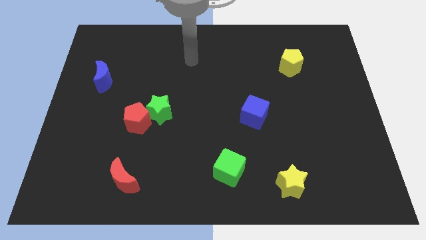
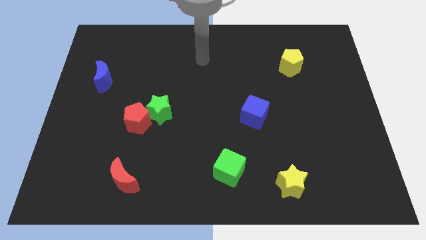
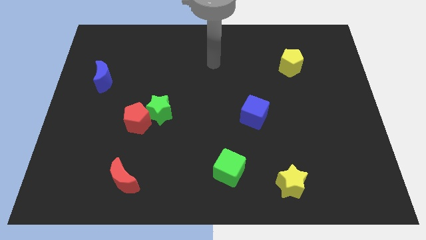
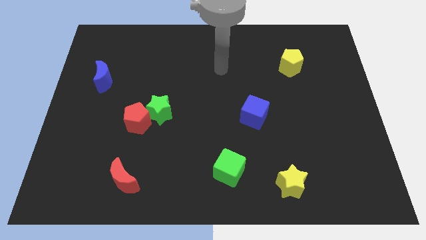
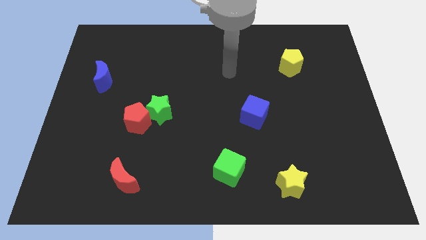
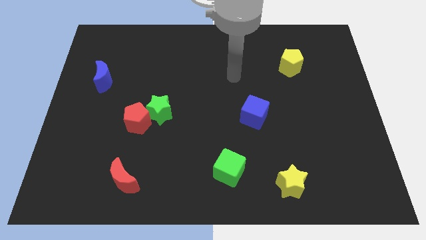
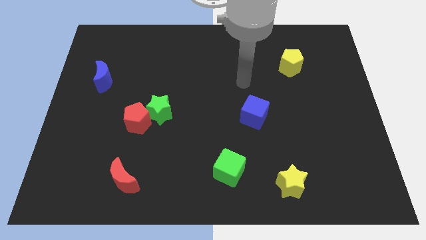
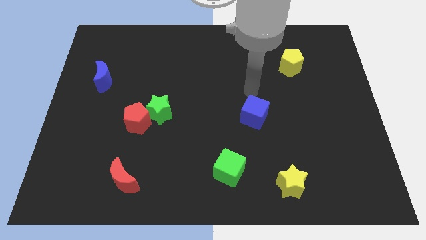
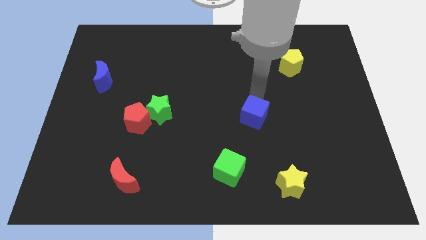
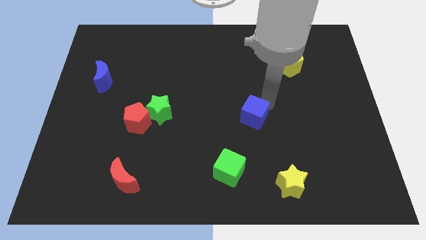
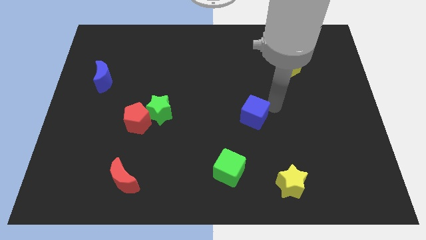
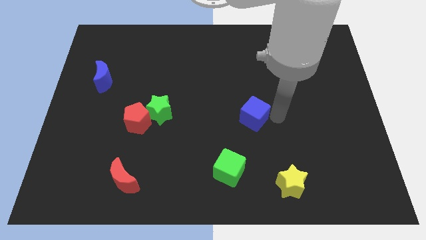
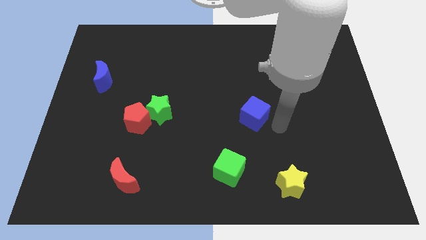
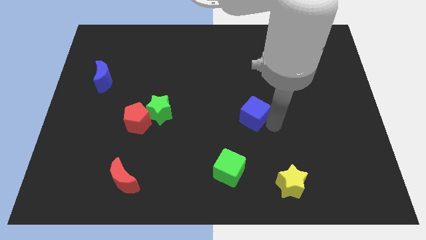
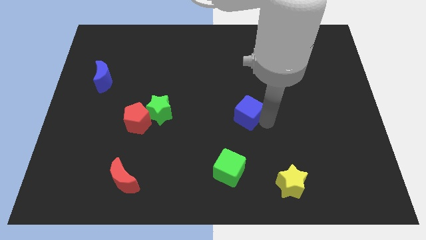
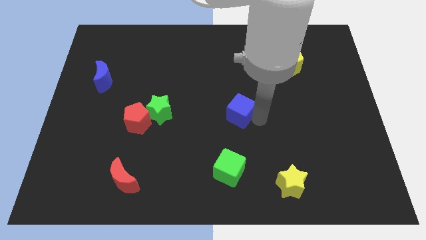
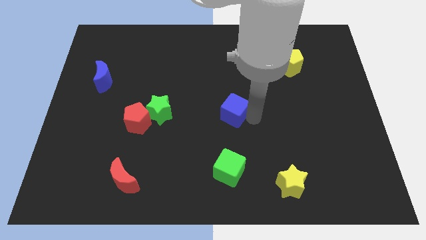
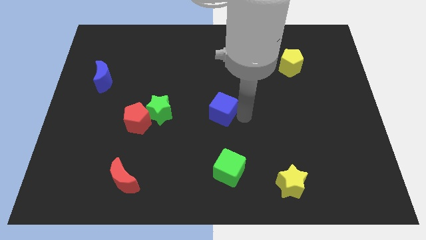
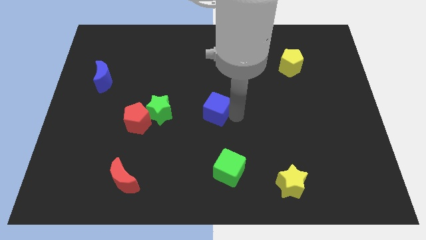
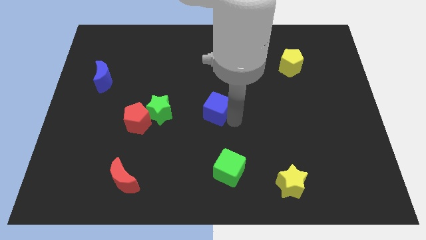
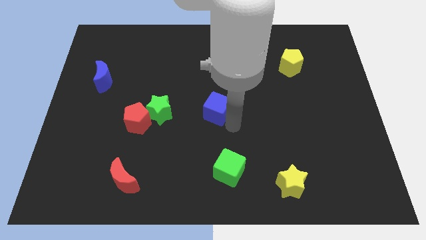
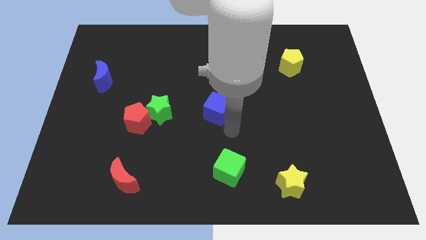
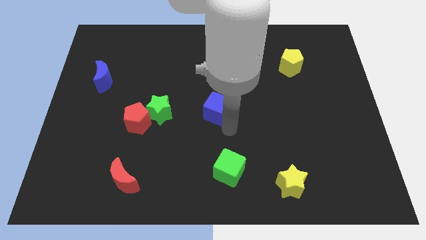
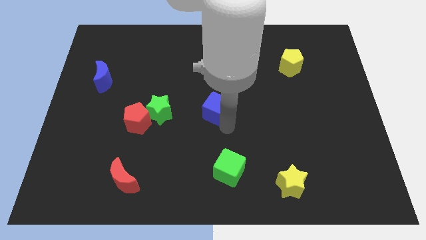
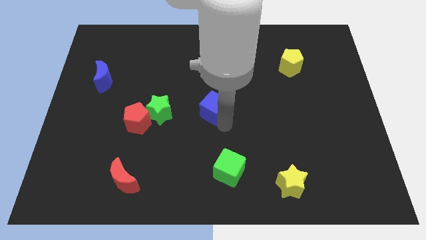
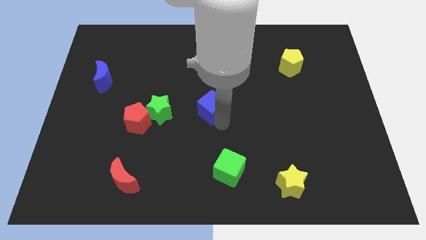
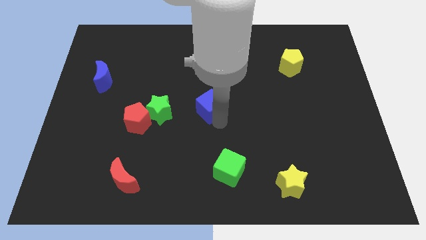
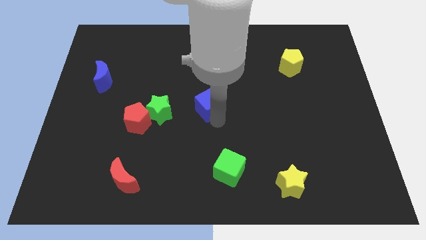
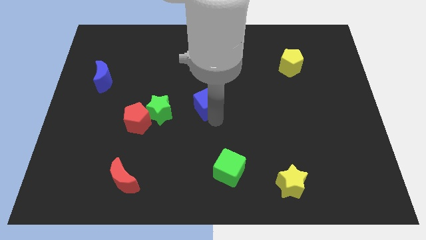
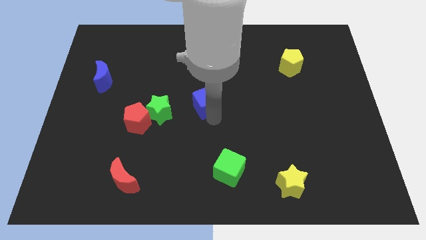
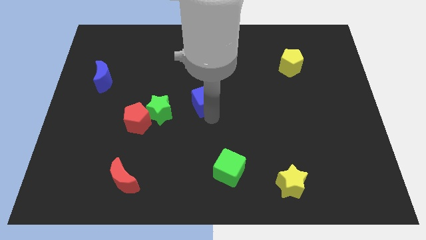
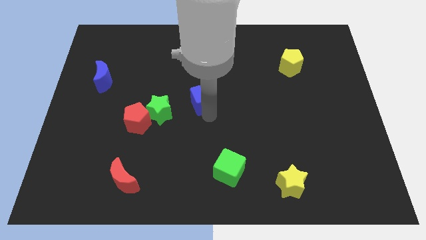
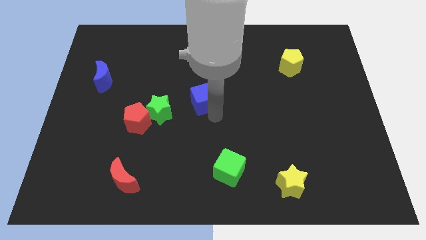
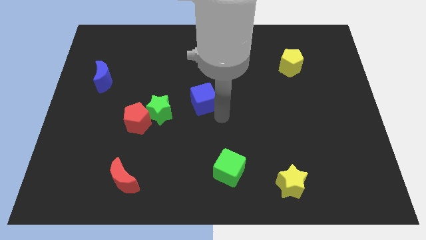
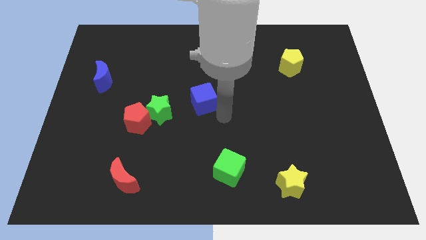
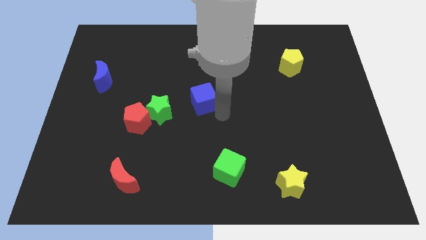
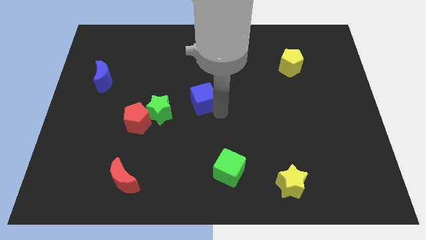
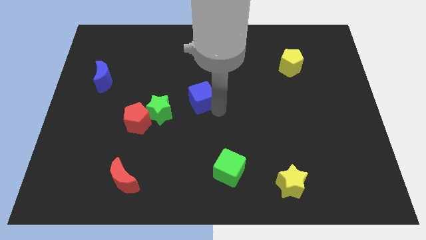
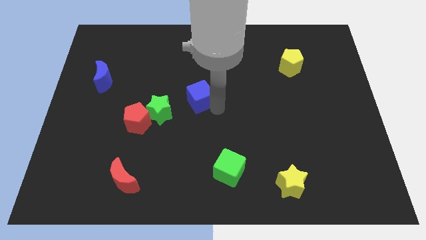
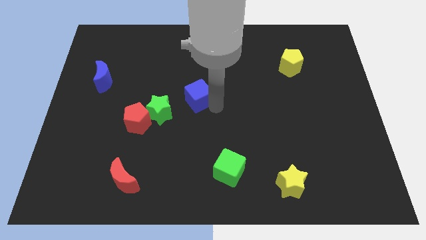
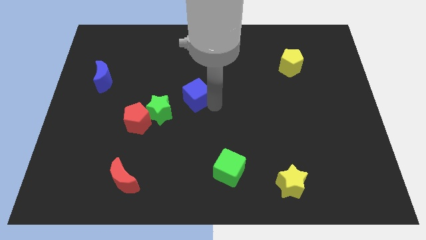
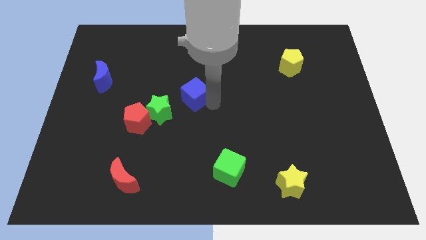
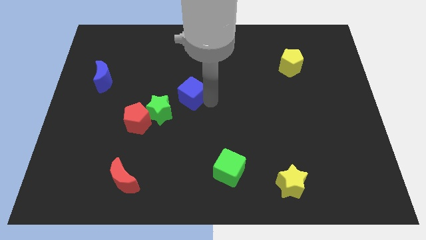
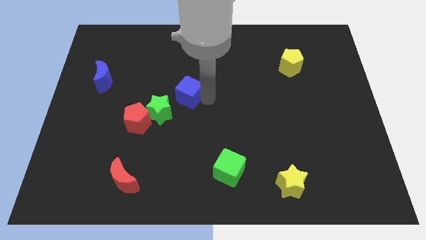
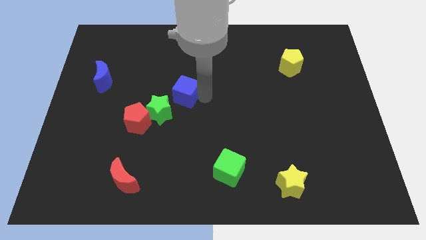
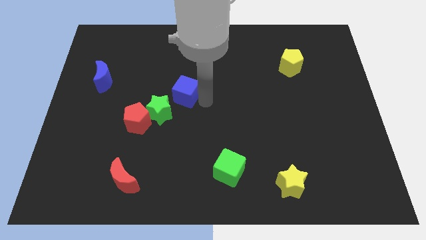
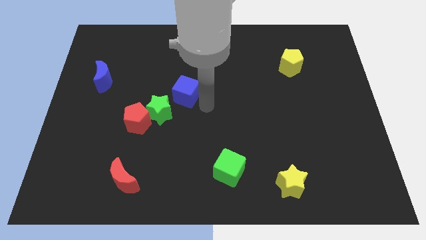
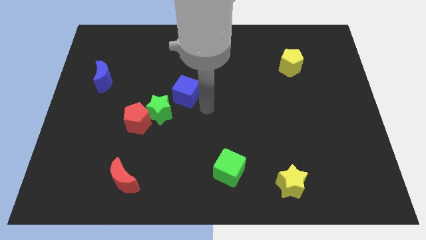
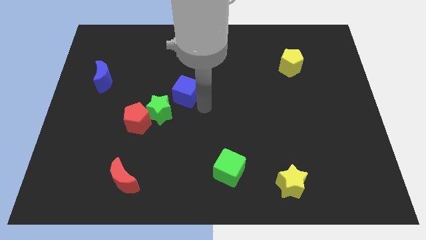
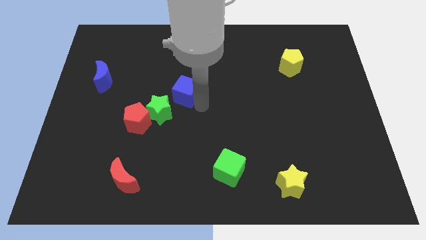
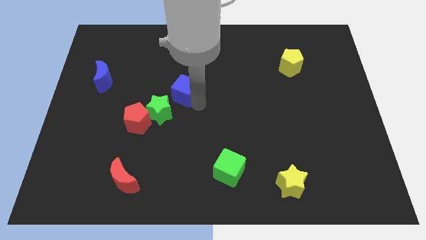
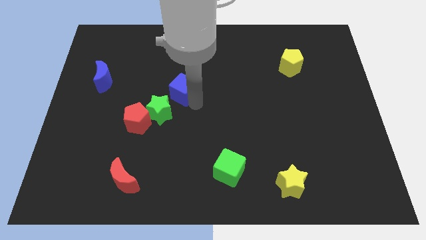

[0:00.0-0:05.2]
slide the blue cube to the top of the green star

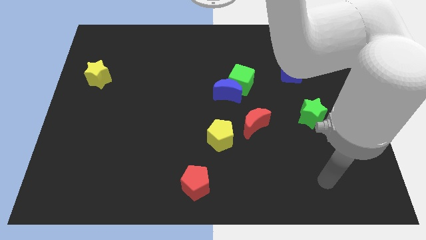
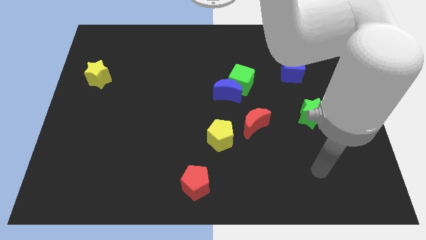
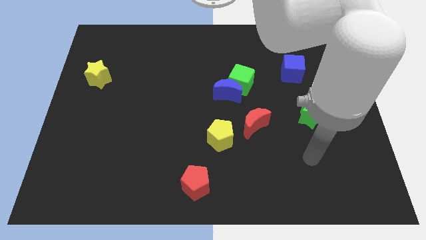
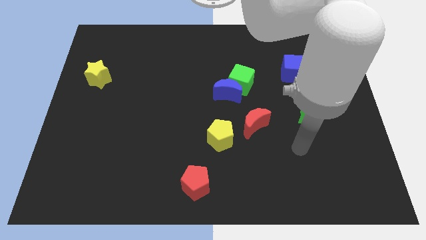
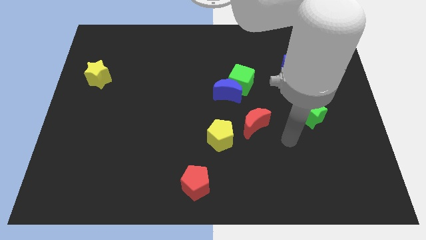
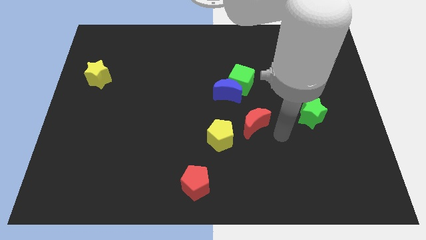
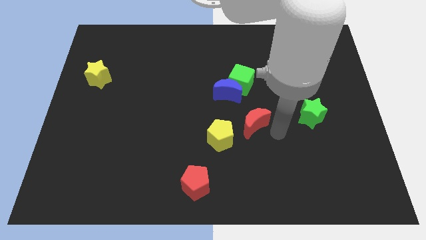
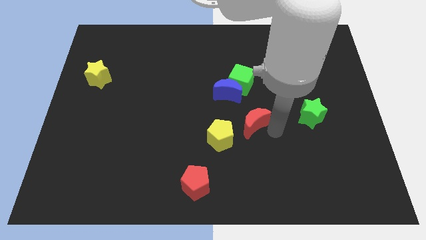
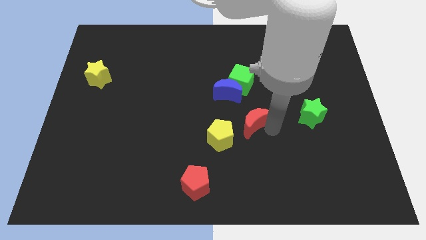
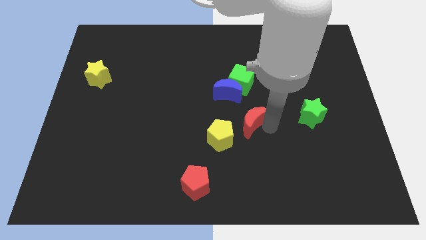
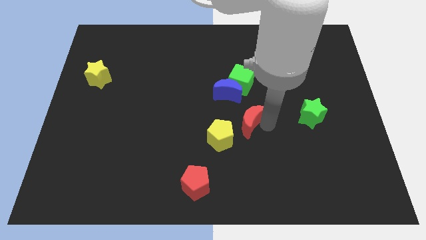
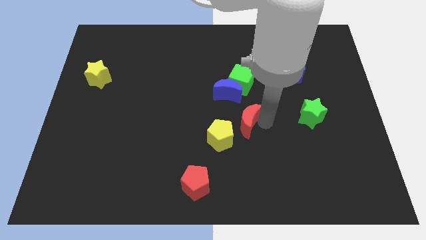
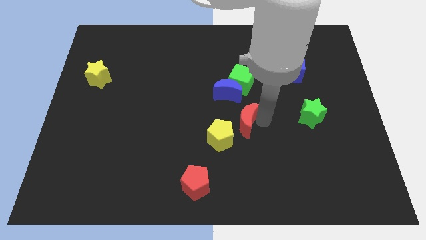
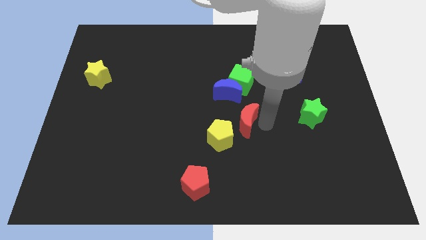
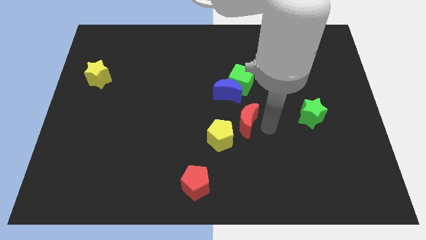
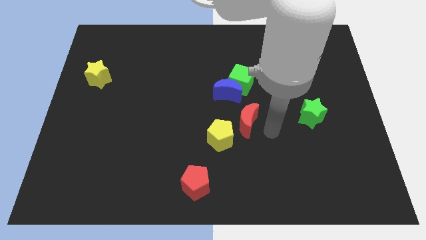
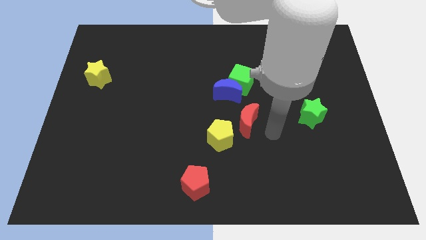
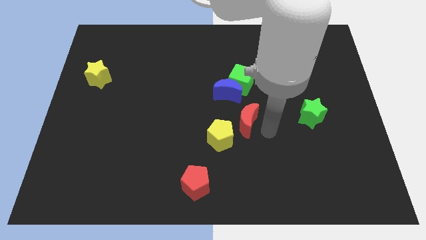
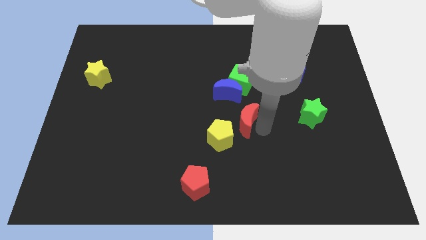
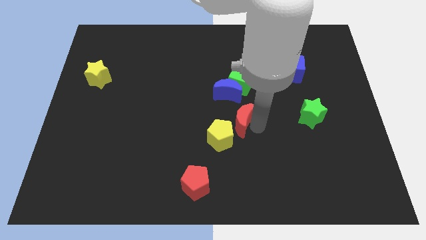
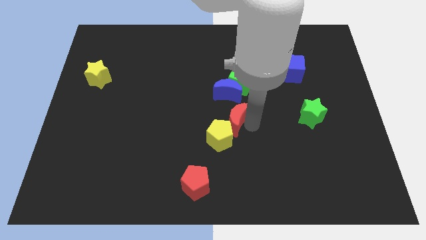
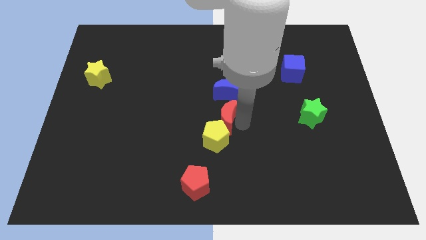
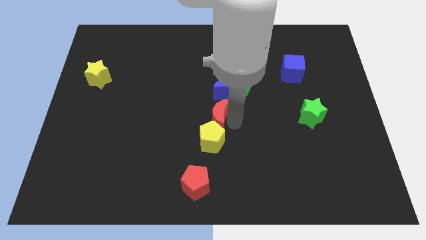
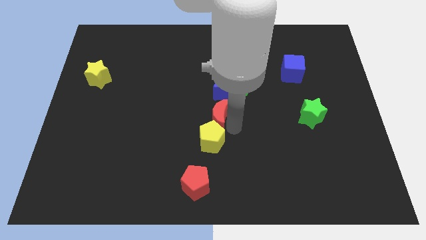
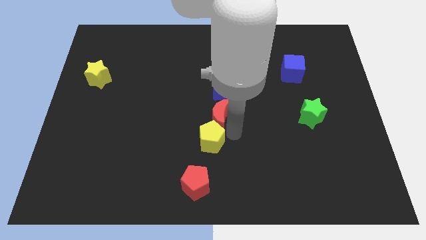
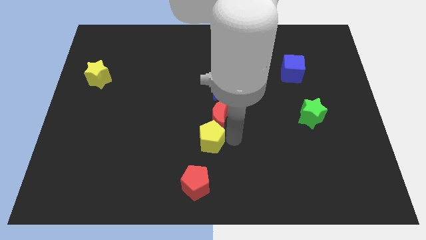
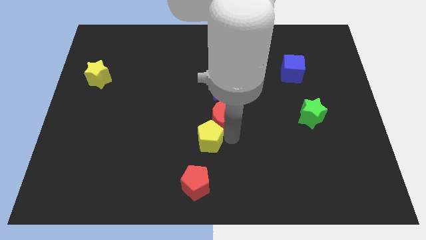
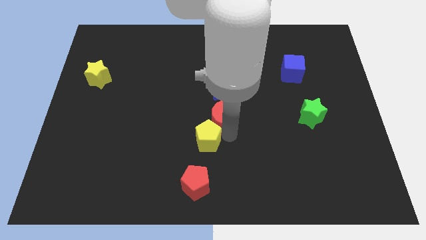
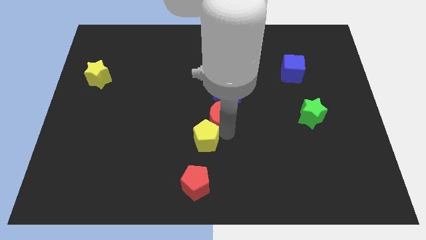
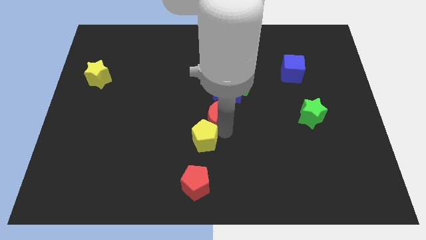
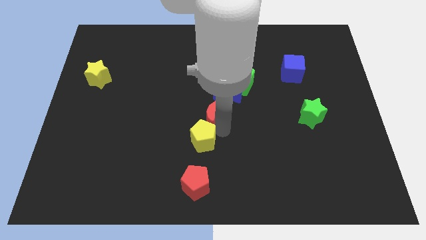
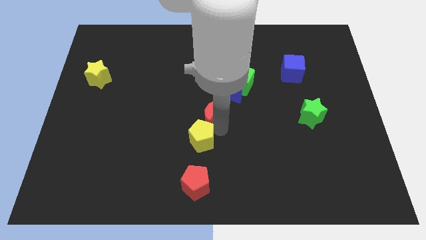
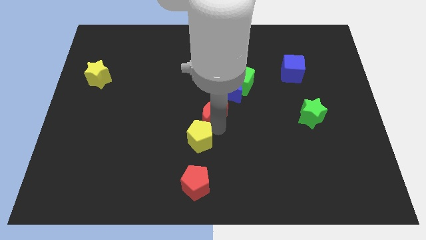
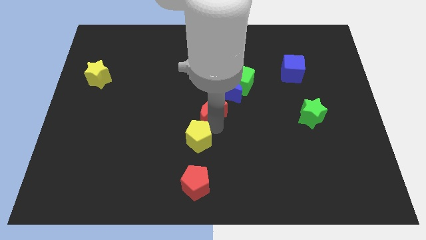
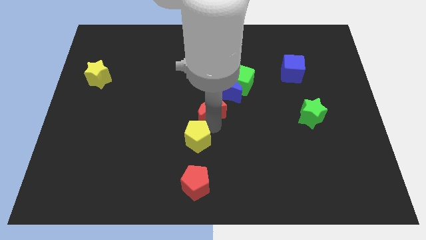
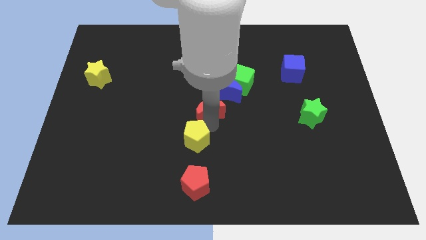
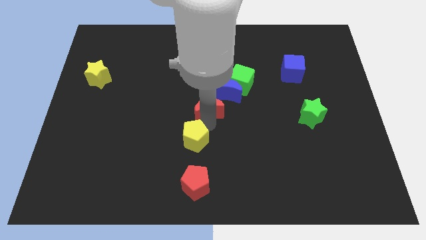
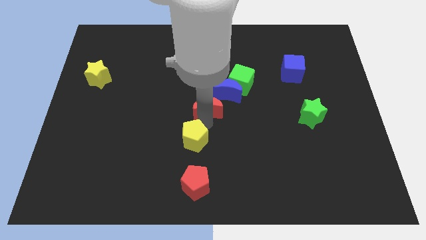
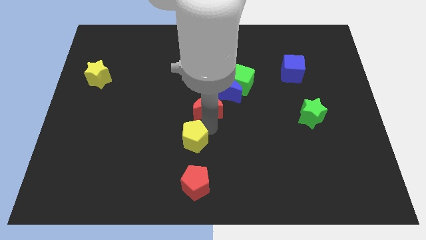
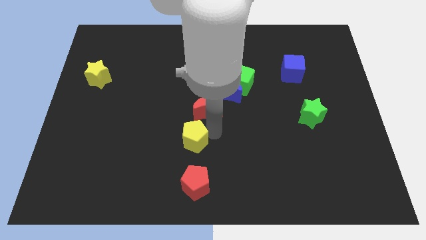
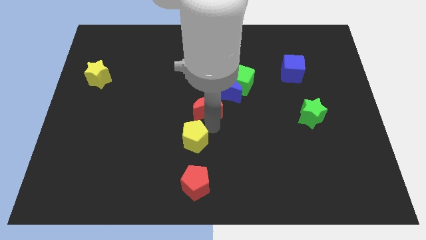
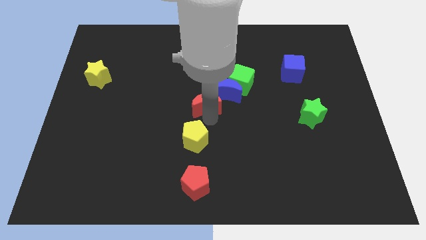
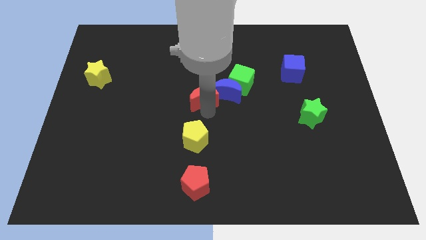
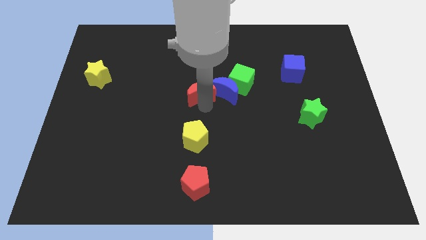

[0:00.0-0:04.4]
push the red moon to the left side of the green cube
